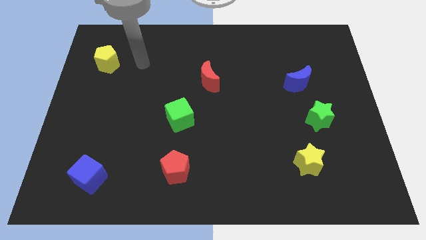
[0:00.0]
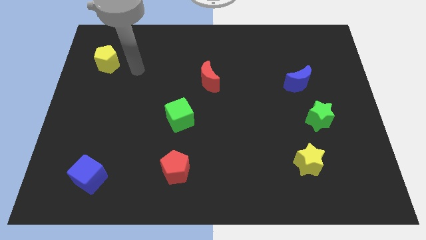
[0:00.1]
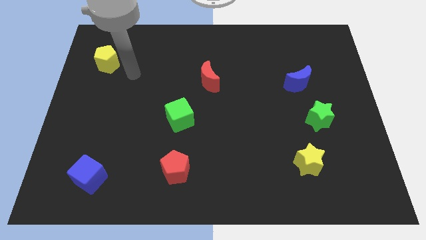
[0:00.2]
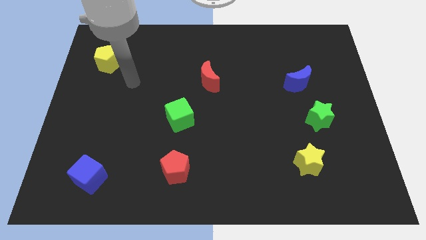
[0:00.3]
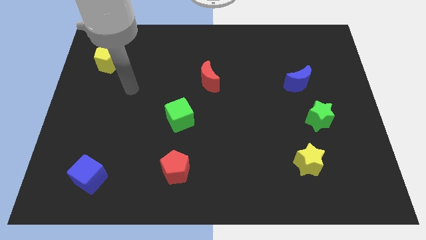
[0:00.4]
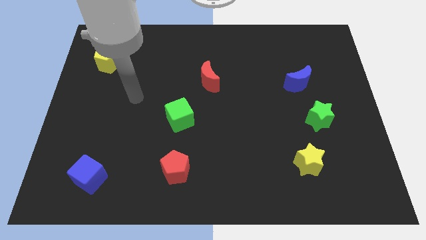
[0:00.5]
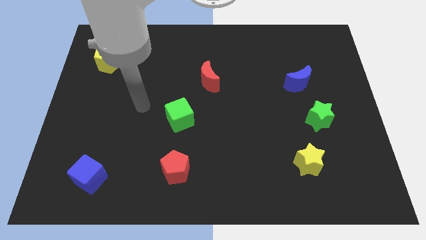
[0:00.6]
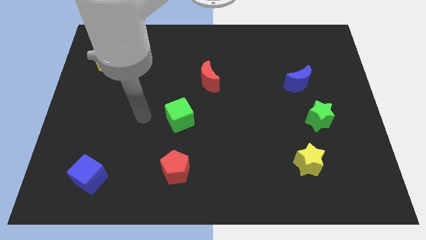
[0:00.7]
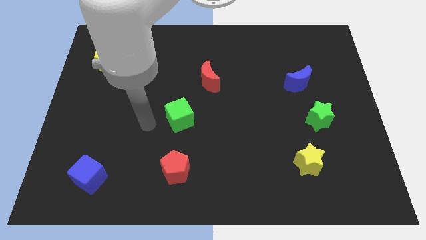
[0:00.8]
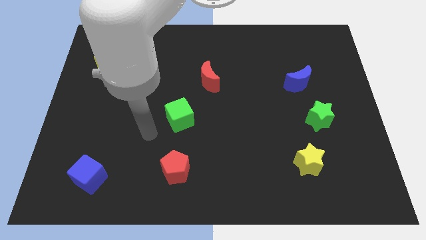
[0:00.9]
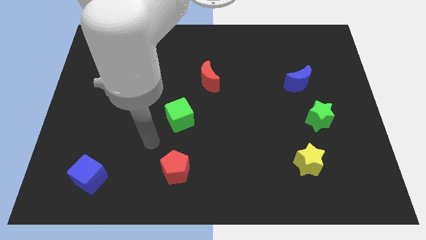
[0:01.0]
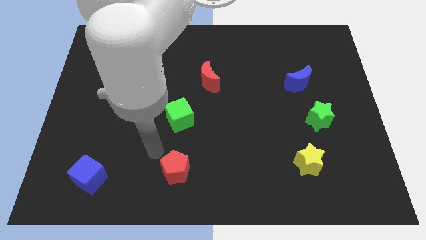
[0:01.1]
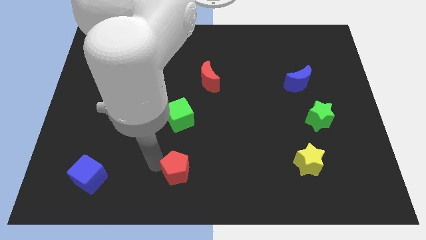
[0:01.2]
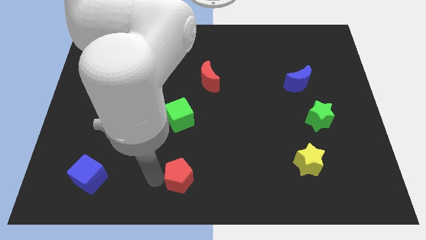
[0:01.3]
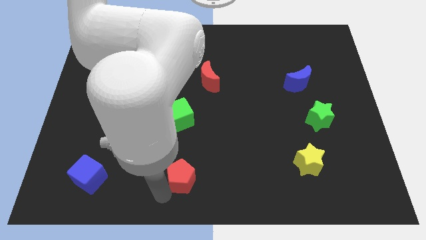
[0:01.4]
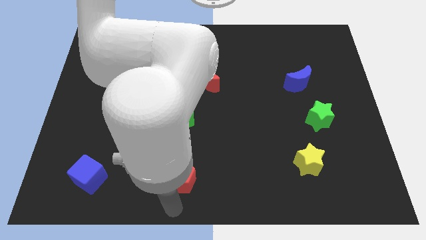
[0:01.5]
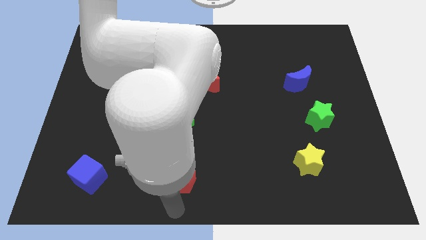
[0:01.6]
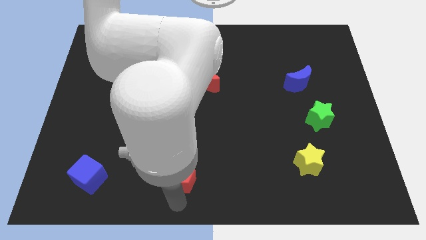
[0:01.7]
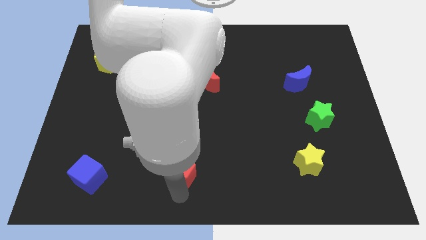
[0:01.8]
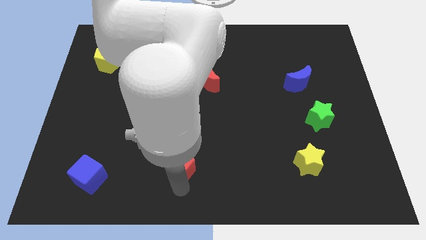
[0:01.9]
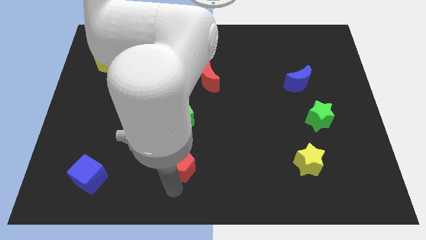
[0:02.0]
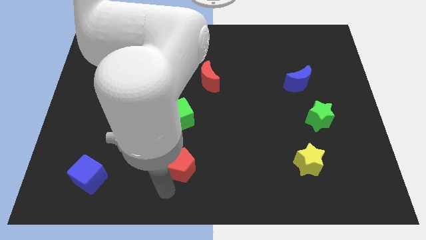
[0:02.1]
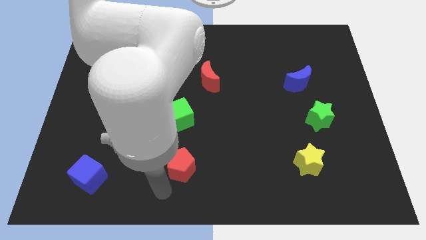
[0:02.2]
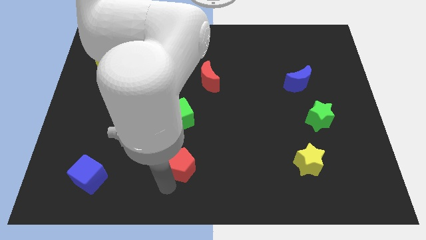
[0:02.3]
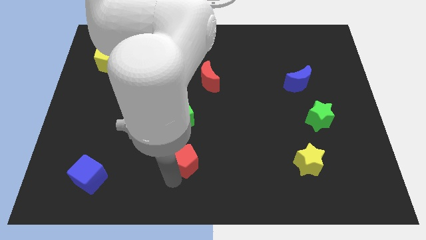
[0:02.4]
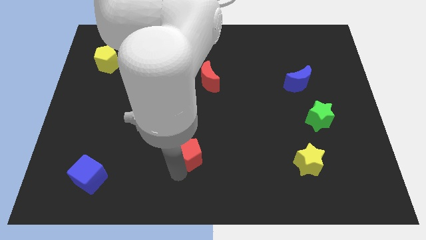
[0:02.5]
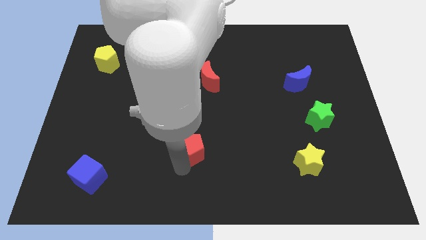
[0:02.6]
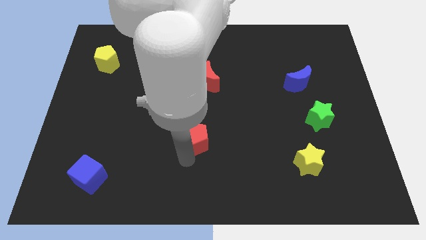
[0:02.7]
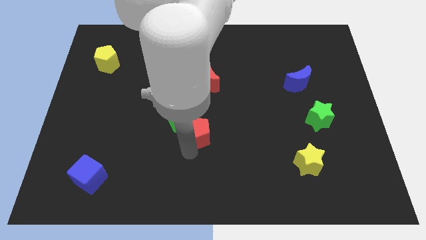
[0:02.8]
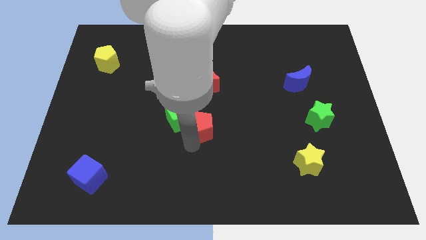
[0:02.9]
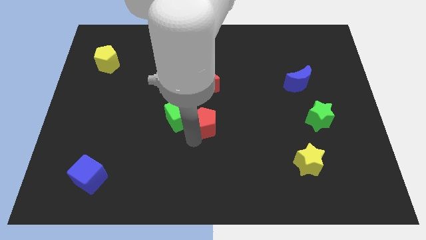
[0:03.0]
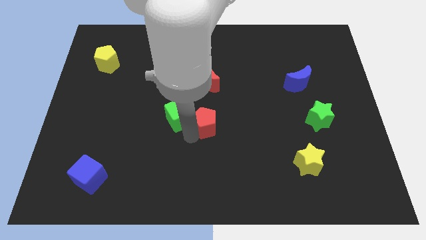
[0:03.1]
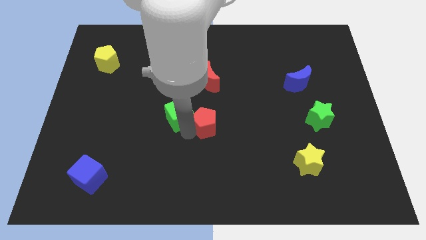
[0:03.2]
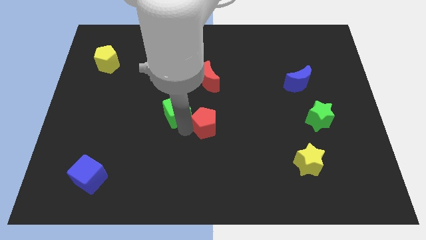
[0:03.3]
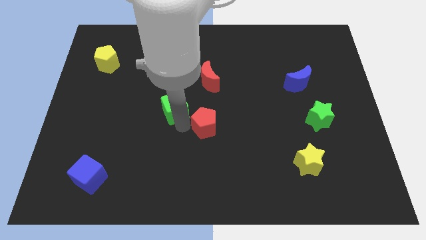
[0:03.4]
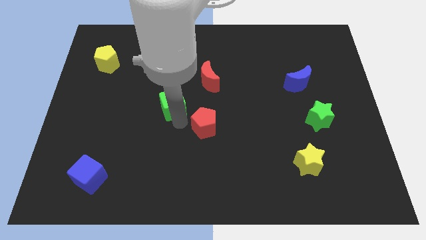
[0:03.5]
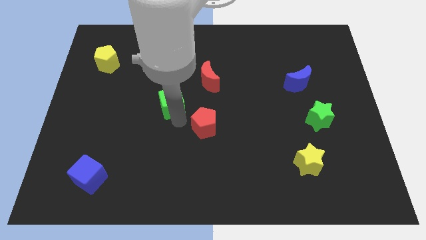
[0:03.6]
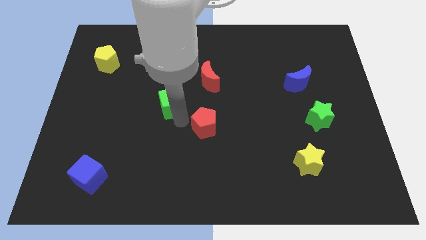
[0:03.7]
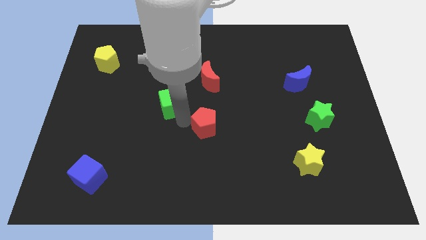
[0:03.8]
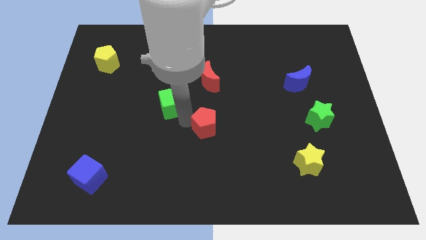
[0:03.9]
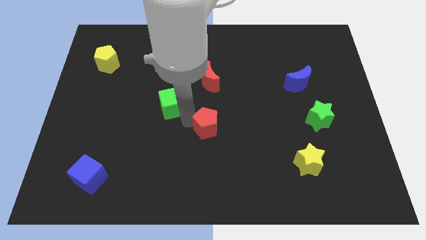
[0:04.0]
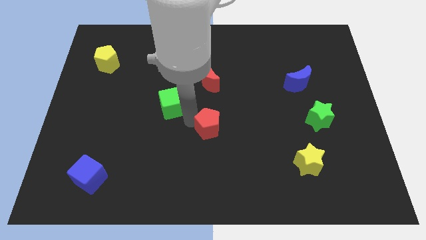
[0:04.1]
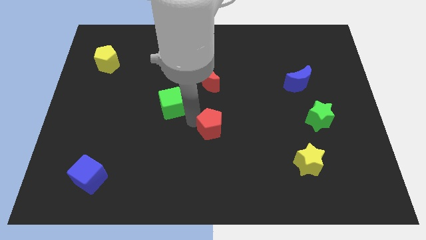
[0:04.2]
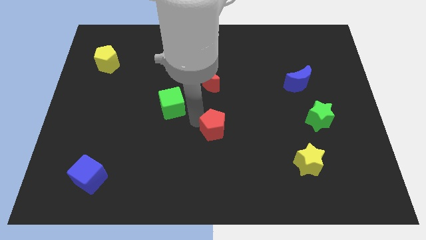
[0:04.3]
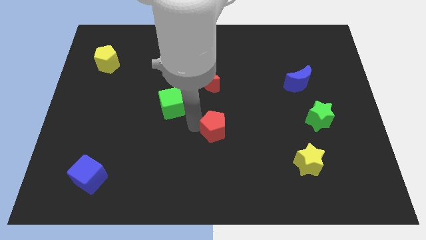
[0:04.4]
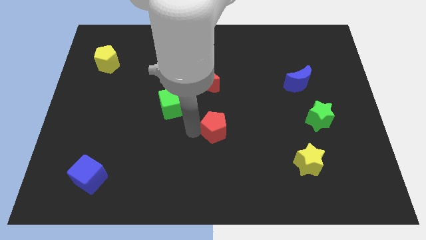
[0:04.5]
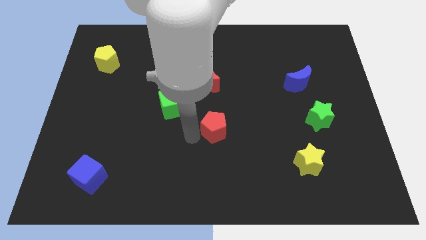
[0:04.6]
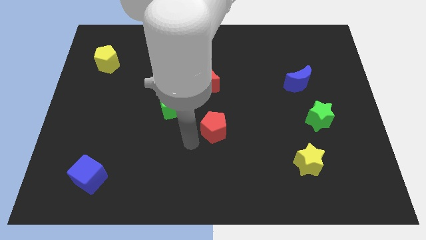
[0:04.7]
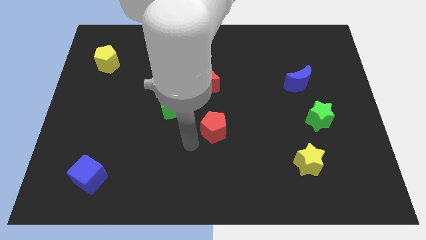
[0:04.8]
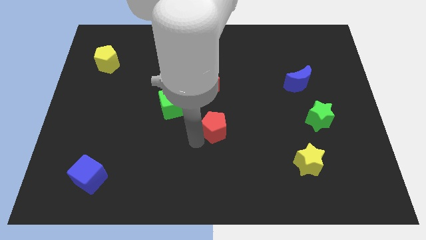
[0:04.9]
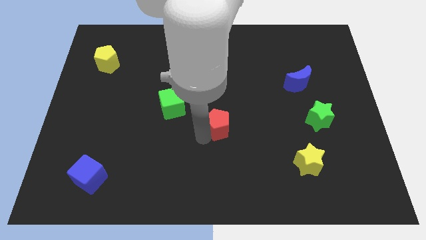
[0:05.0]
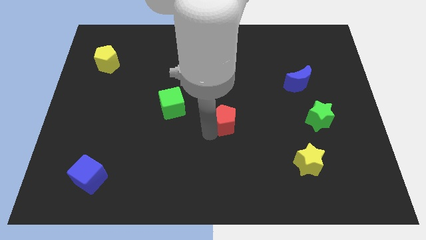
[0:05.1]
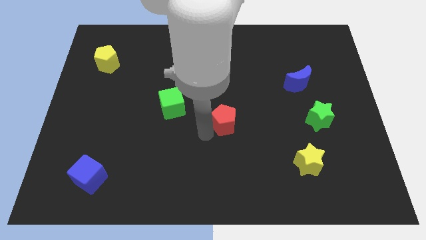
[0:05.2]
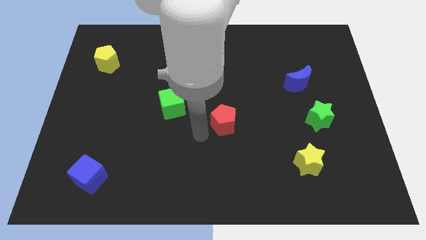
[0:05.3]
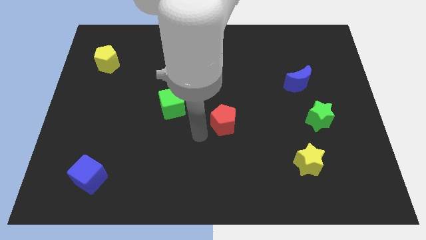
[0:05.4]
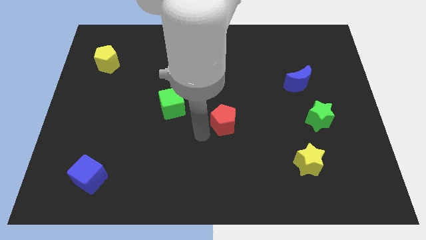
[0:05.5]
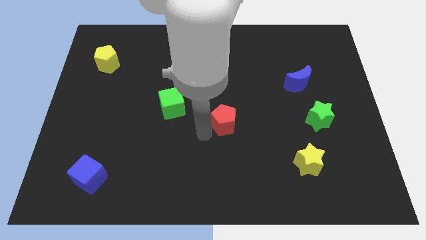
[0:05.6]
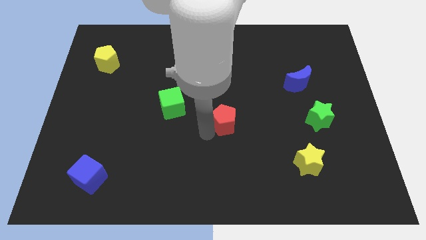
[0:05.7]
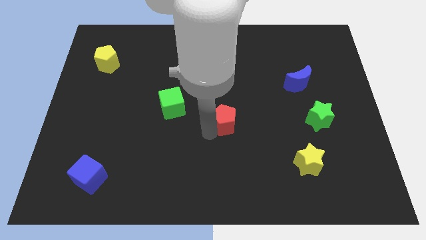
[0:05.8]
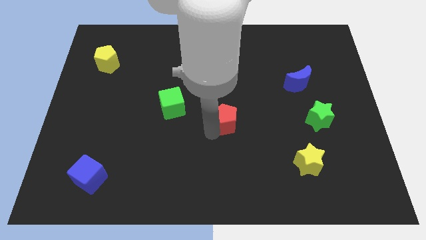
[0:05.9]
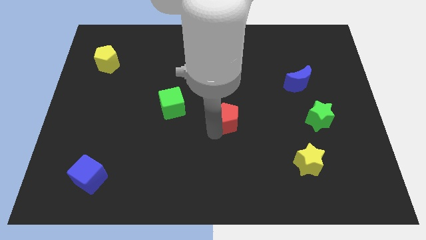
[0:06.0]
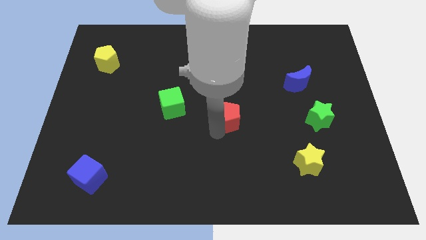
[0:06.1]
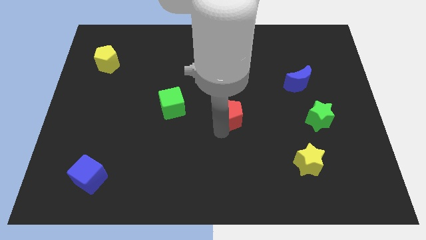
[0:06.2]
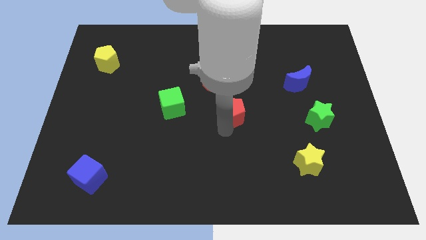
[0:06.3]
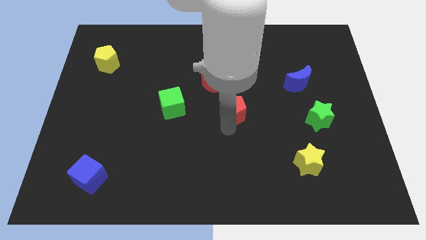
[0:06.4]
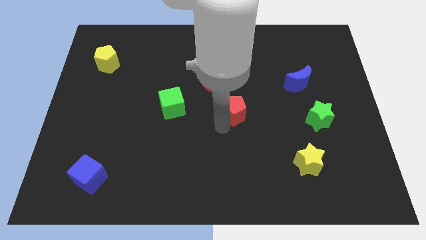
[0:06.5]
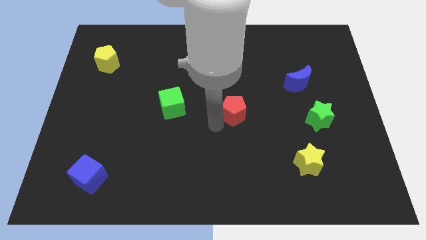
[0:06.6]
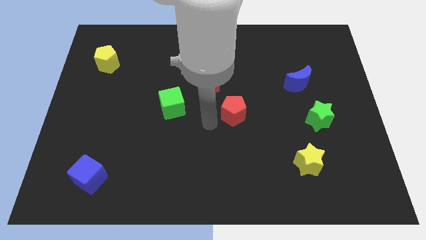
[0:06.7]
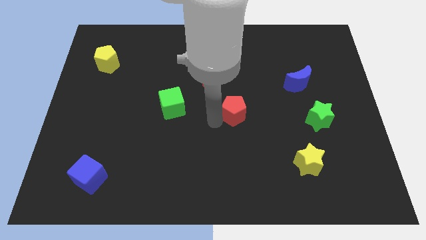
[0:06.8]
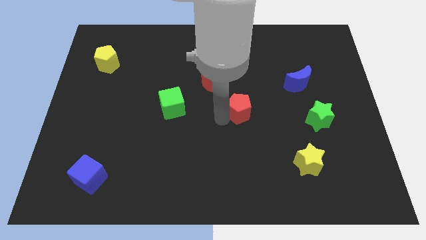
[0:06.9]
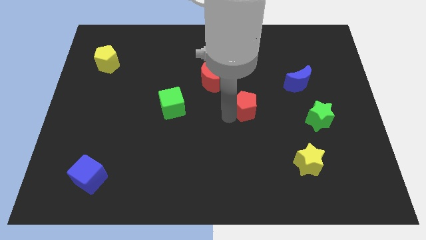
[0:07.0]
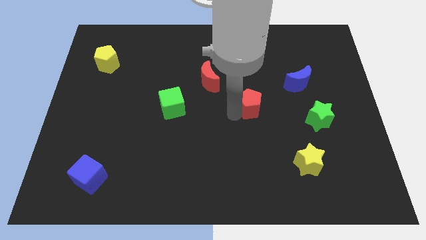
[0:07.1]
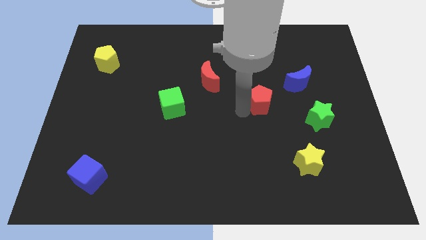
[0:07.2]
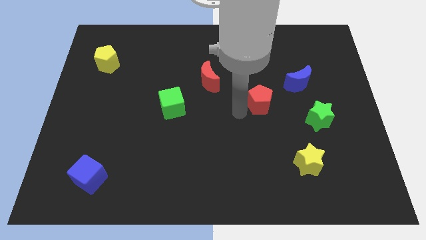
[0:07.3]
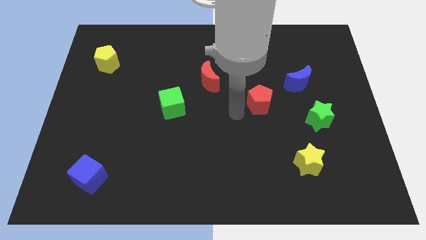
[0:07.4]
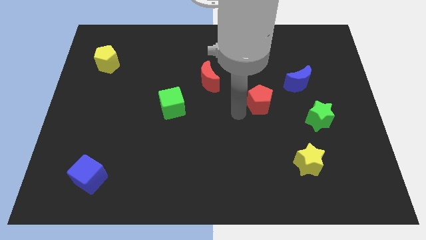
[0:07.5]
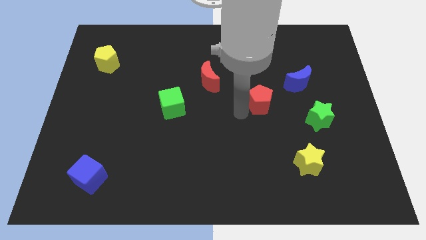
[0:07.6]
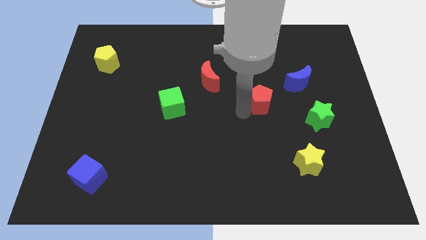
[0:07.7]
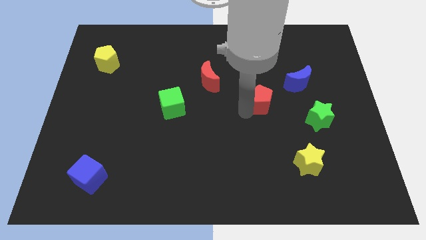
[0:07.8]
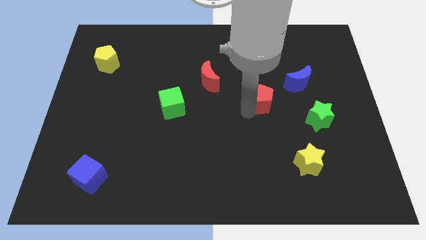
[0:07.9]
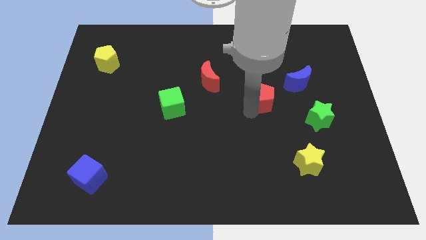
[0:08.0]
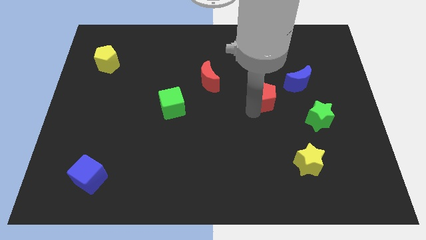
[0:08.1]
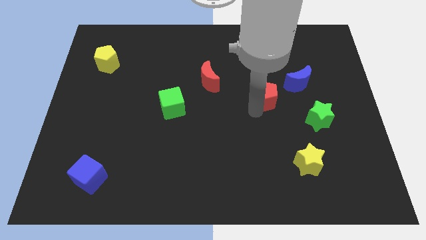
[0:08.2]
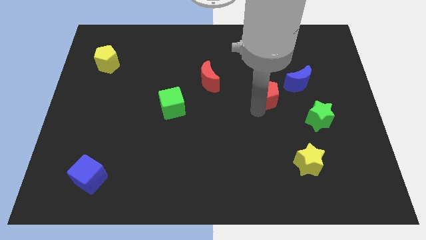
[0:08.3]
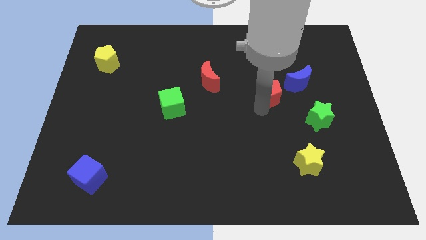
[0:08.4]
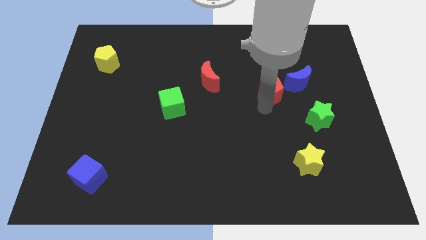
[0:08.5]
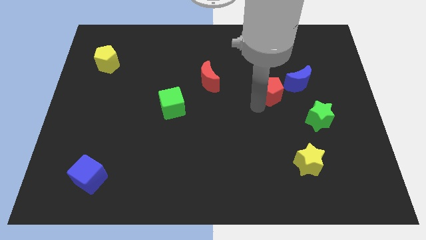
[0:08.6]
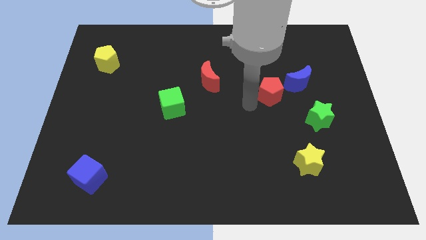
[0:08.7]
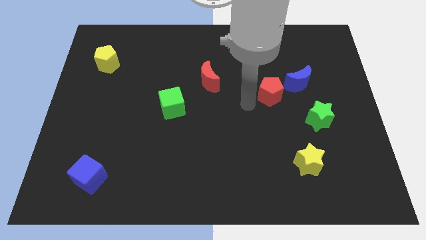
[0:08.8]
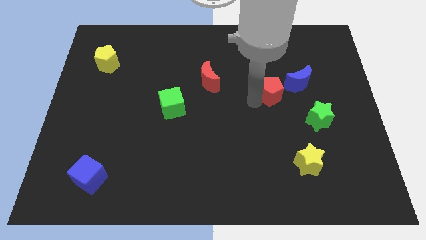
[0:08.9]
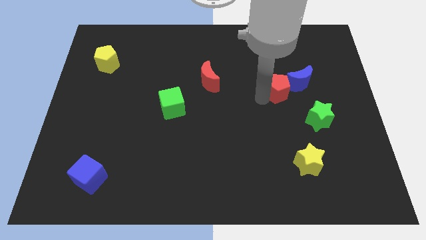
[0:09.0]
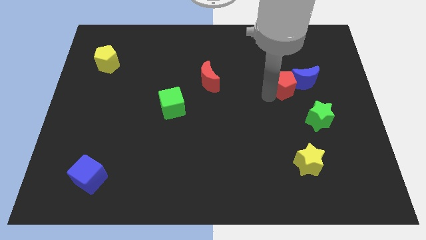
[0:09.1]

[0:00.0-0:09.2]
move the red pentagon towards the blue moon
